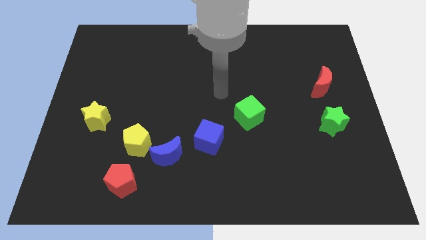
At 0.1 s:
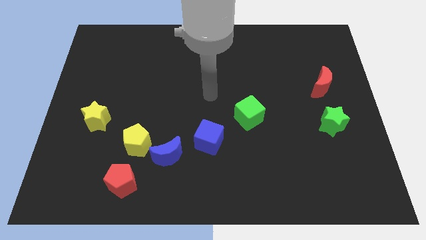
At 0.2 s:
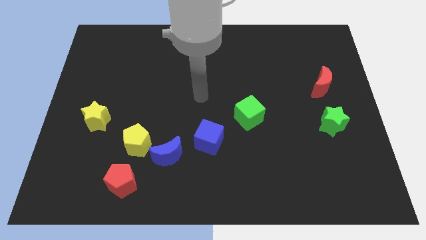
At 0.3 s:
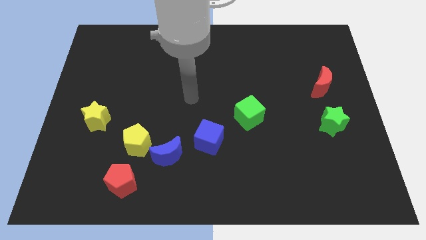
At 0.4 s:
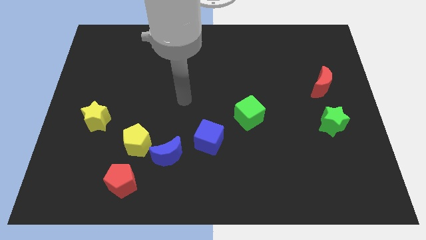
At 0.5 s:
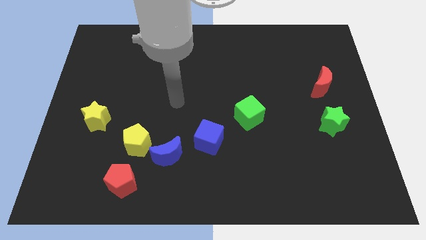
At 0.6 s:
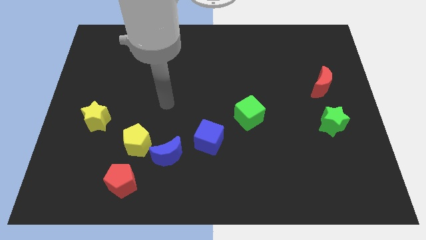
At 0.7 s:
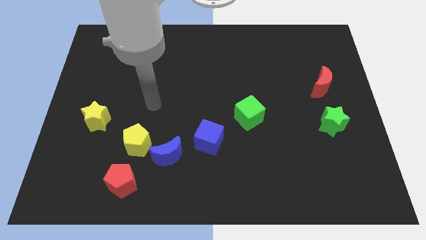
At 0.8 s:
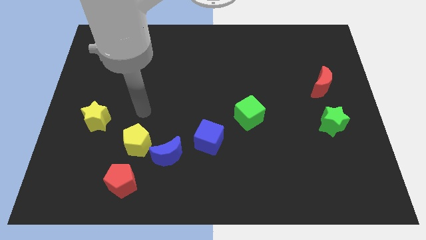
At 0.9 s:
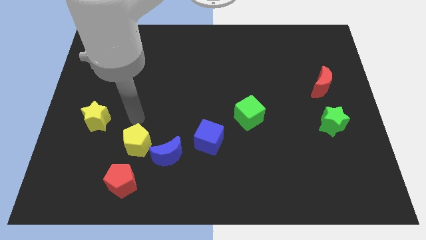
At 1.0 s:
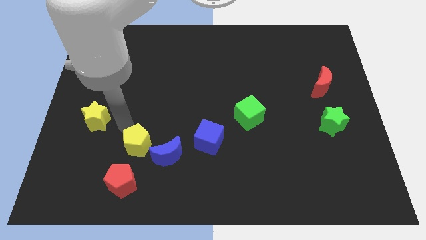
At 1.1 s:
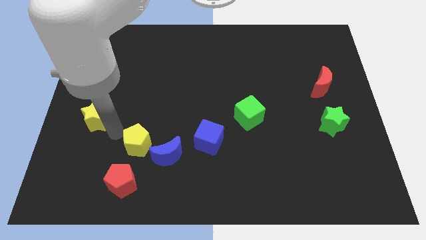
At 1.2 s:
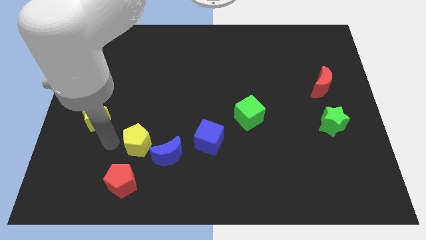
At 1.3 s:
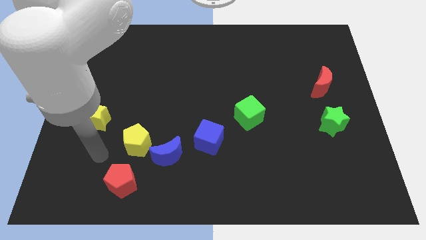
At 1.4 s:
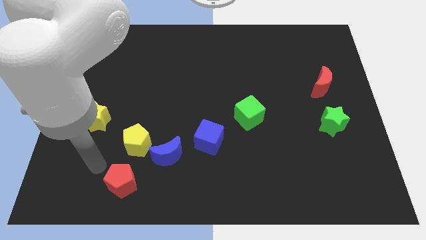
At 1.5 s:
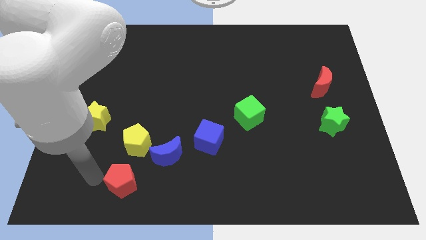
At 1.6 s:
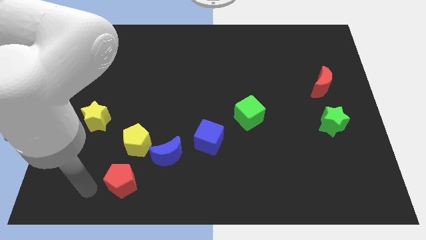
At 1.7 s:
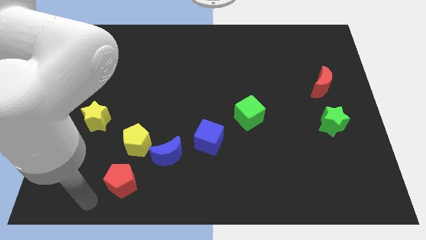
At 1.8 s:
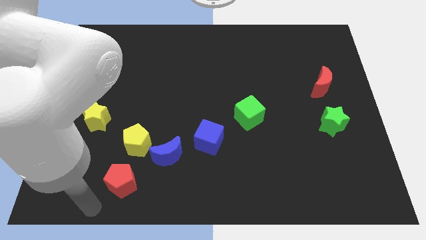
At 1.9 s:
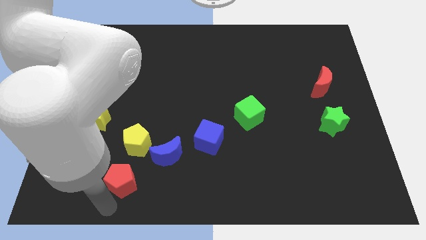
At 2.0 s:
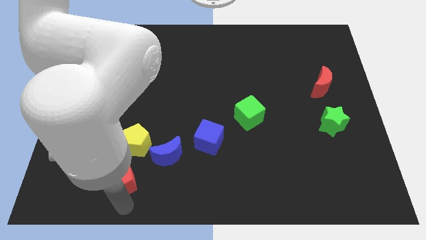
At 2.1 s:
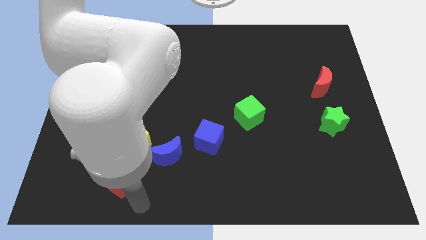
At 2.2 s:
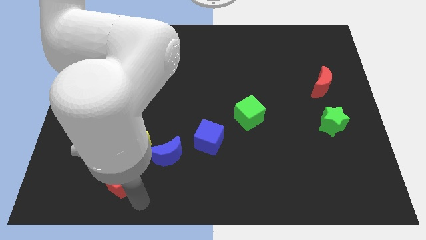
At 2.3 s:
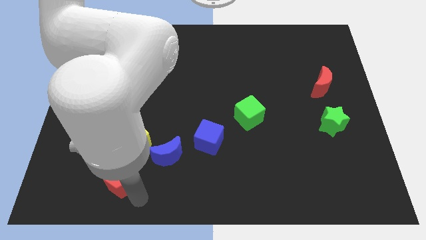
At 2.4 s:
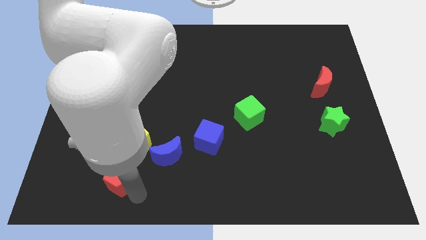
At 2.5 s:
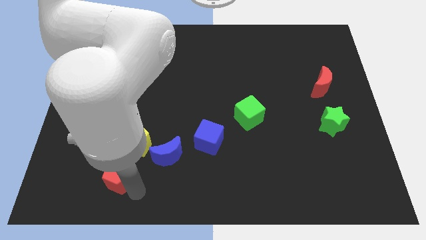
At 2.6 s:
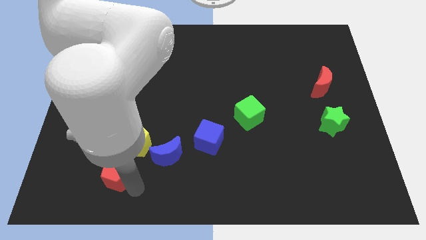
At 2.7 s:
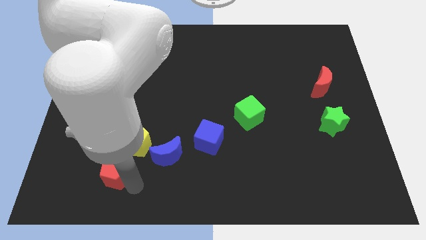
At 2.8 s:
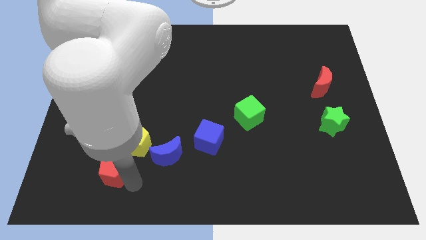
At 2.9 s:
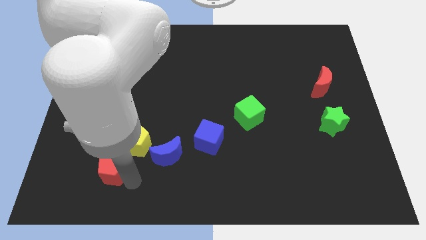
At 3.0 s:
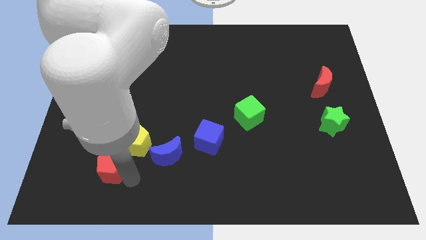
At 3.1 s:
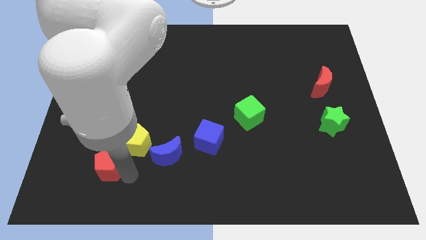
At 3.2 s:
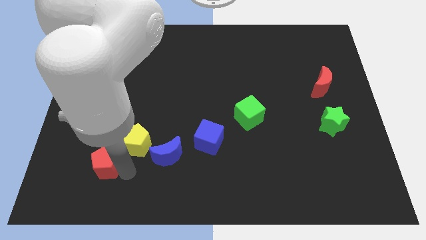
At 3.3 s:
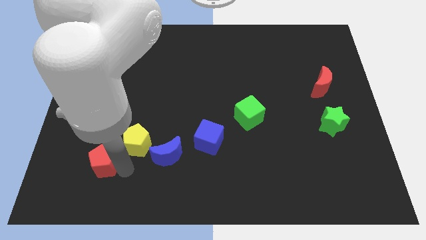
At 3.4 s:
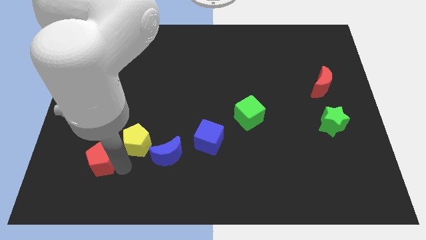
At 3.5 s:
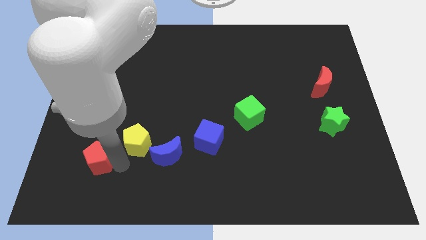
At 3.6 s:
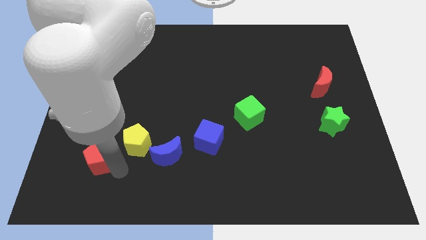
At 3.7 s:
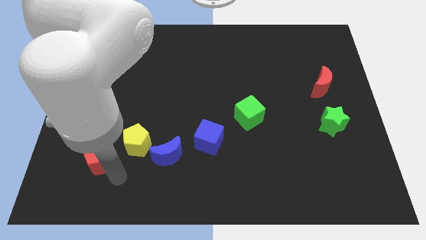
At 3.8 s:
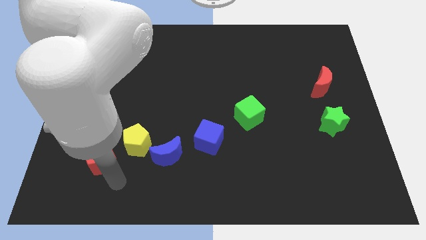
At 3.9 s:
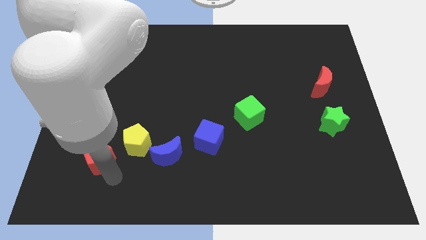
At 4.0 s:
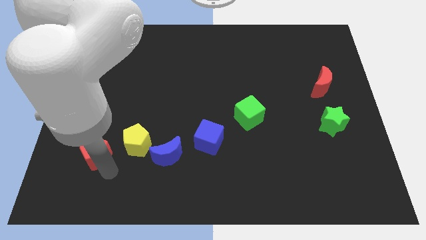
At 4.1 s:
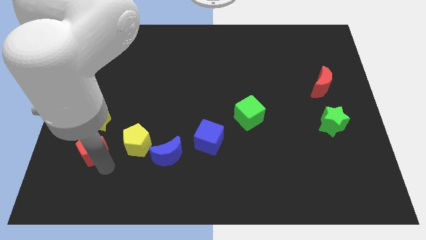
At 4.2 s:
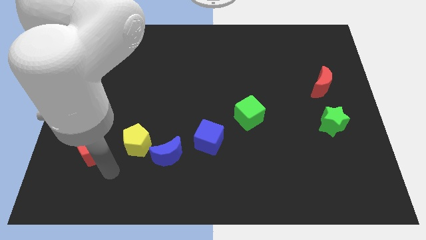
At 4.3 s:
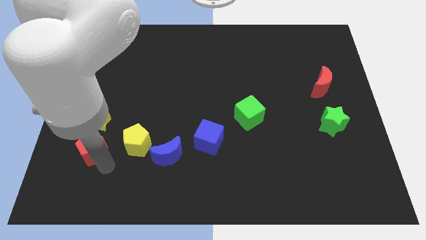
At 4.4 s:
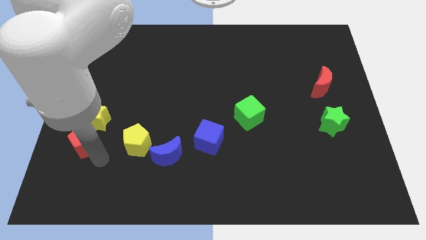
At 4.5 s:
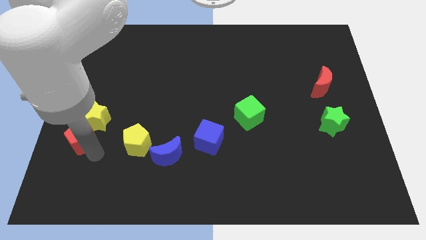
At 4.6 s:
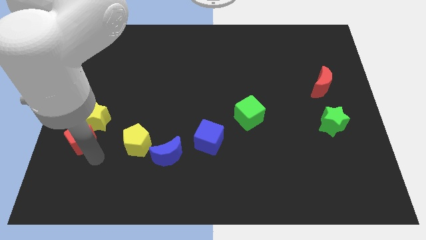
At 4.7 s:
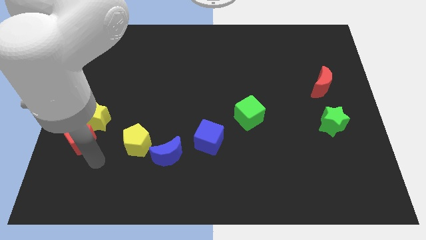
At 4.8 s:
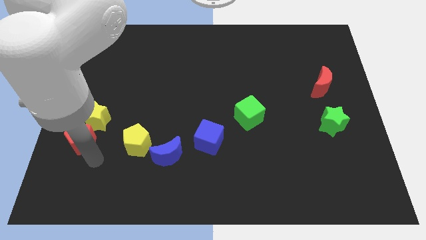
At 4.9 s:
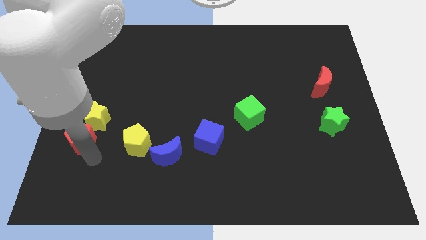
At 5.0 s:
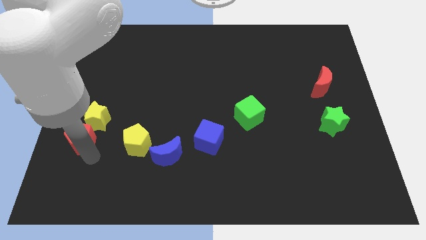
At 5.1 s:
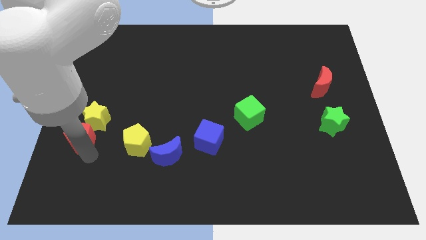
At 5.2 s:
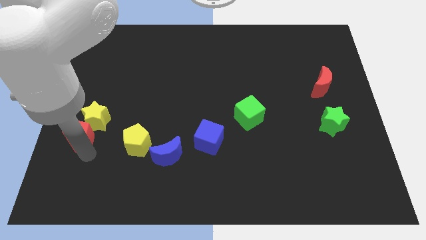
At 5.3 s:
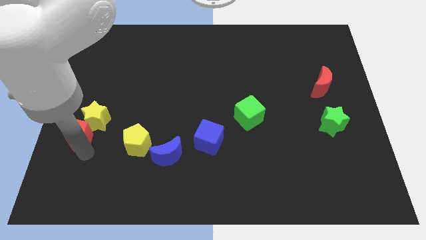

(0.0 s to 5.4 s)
push the red pentagon to the center left

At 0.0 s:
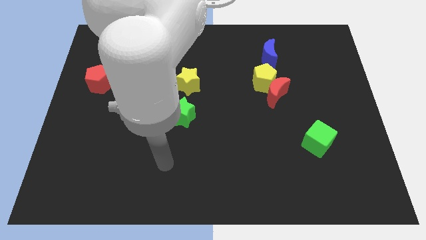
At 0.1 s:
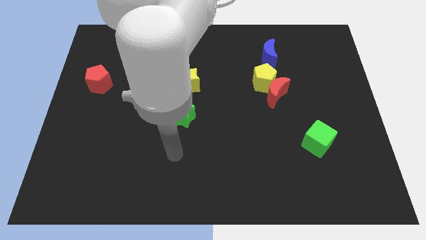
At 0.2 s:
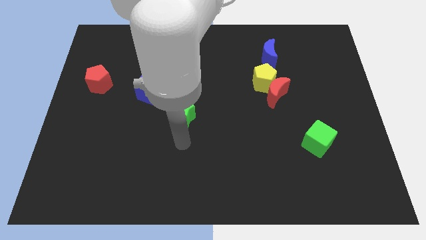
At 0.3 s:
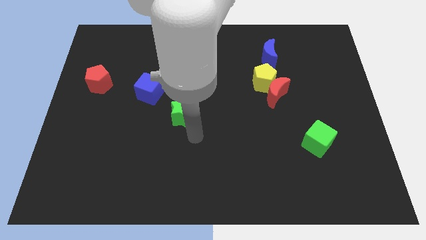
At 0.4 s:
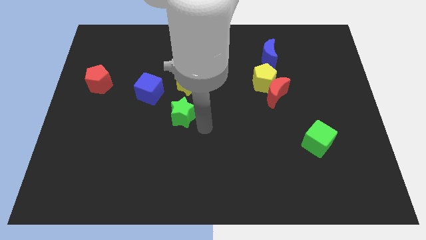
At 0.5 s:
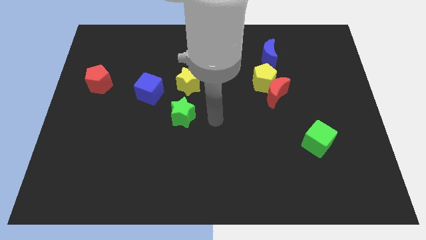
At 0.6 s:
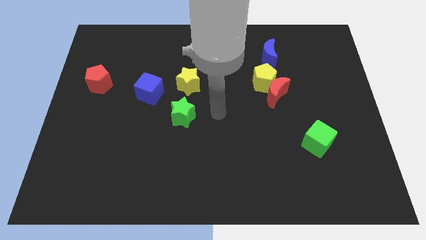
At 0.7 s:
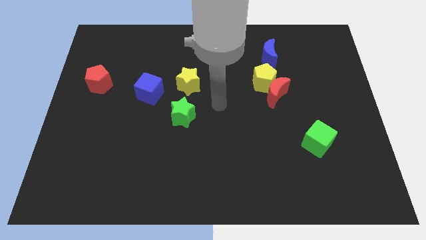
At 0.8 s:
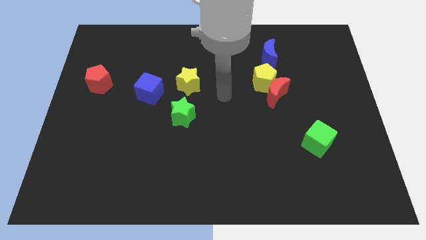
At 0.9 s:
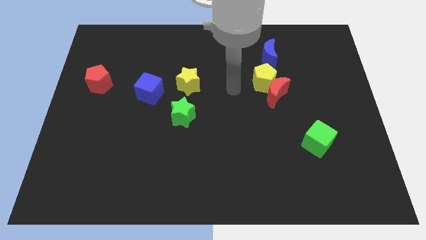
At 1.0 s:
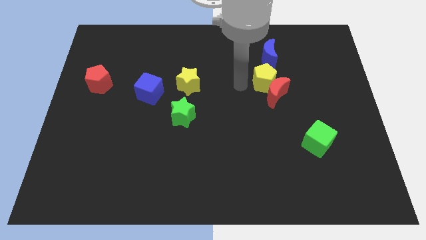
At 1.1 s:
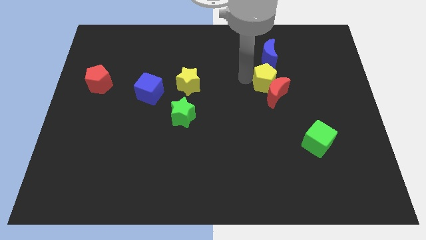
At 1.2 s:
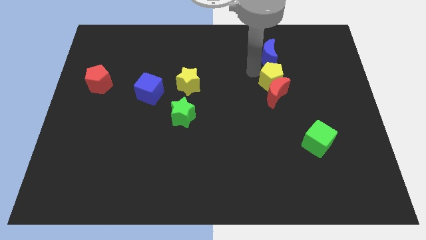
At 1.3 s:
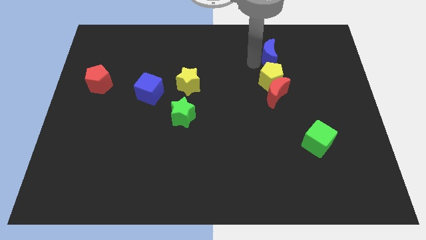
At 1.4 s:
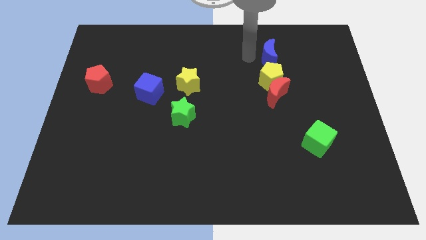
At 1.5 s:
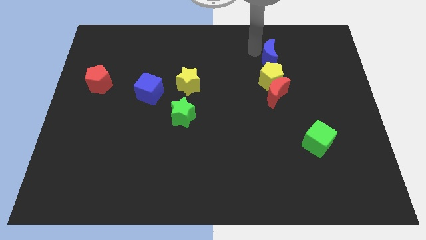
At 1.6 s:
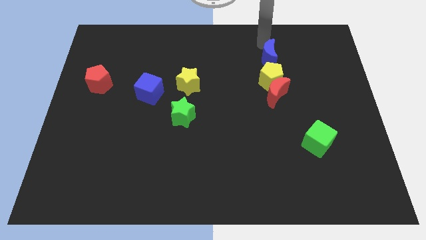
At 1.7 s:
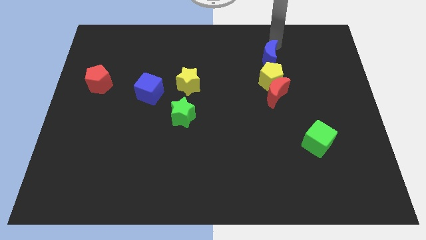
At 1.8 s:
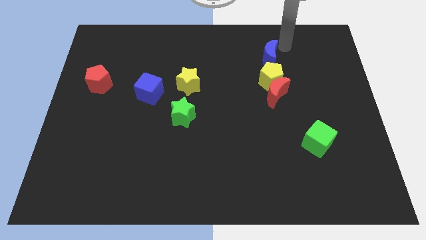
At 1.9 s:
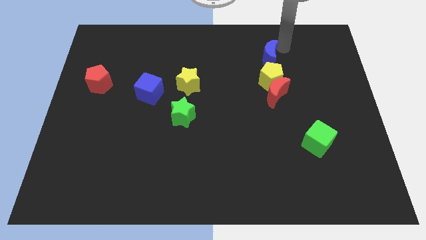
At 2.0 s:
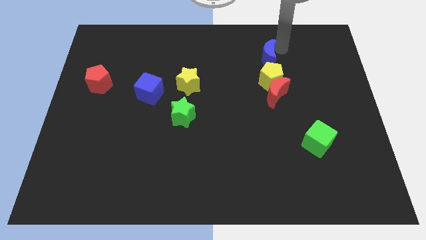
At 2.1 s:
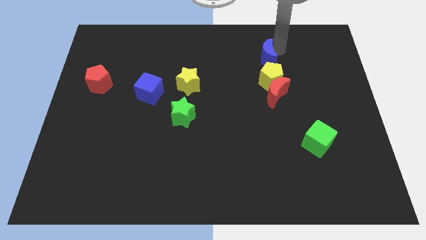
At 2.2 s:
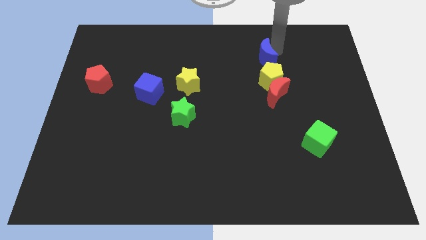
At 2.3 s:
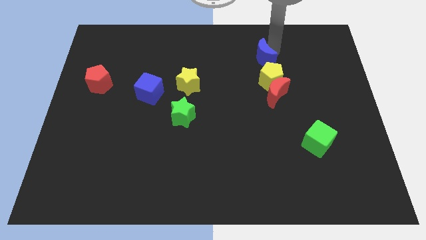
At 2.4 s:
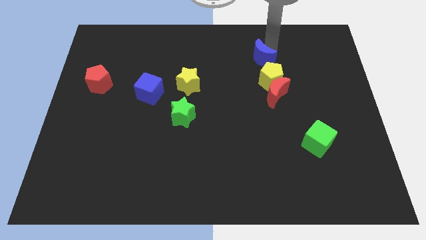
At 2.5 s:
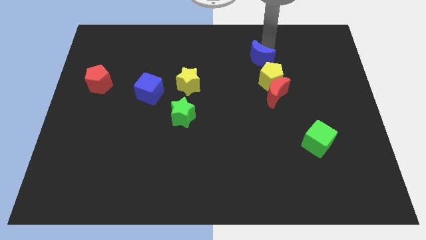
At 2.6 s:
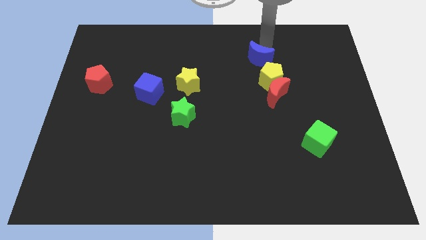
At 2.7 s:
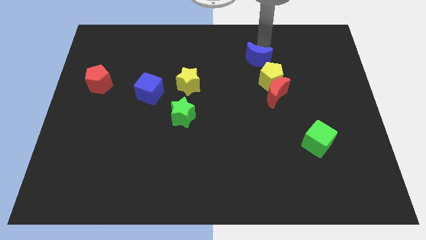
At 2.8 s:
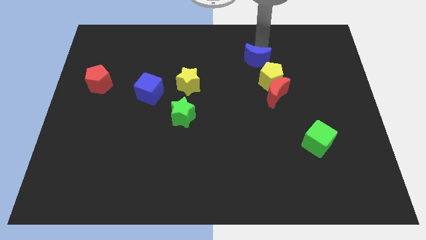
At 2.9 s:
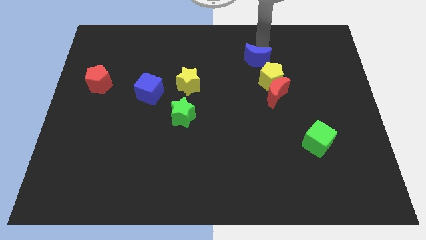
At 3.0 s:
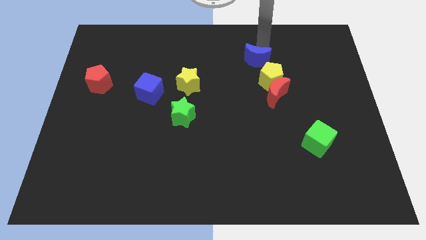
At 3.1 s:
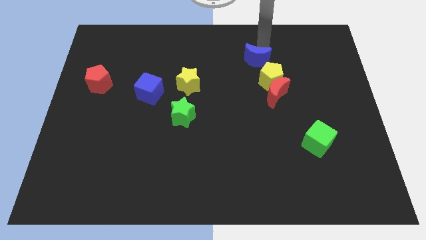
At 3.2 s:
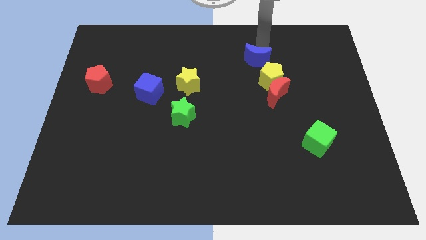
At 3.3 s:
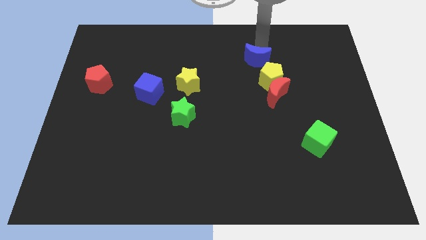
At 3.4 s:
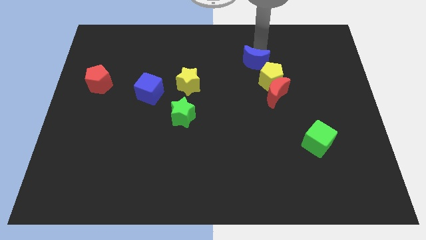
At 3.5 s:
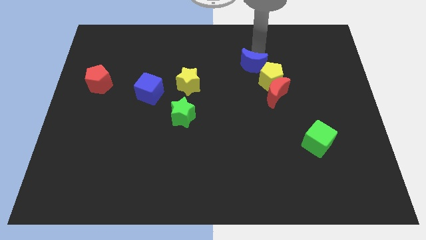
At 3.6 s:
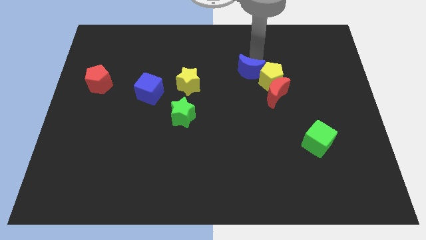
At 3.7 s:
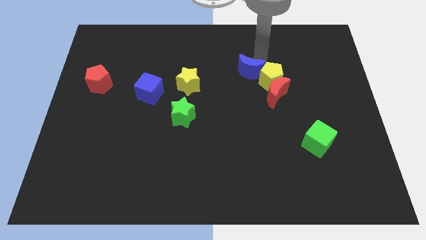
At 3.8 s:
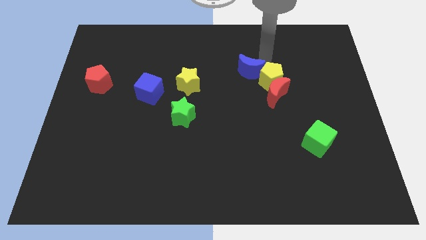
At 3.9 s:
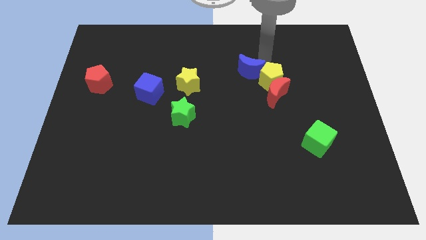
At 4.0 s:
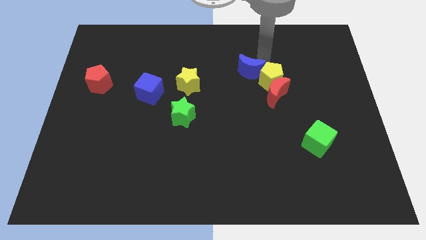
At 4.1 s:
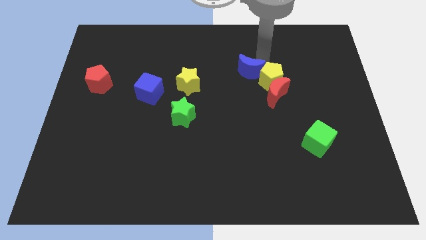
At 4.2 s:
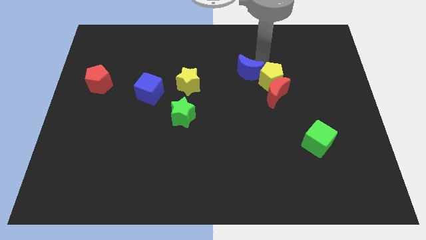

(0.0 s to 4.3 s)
move the blue moon to the middle of the board
